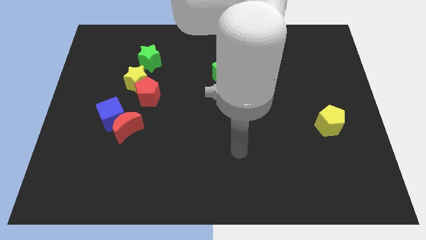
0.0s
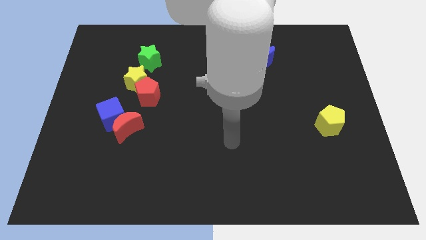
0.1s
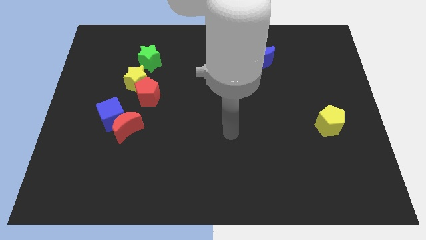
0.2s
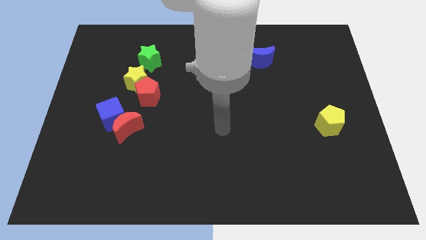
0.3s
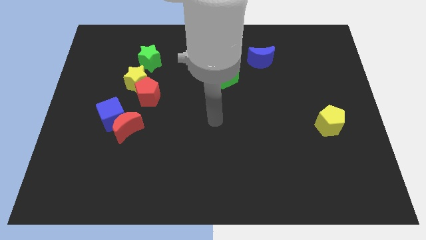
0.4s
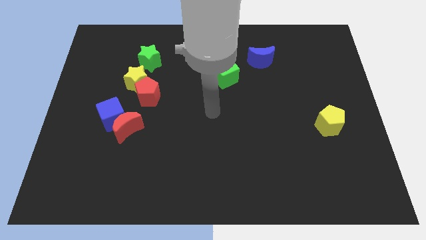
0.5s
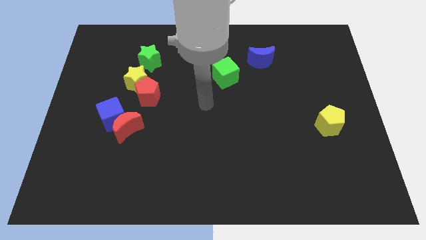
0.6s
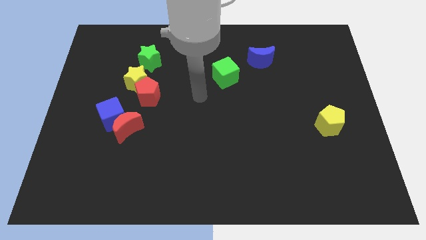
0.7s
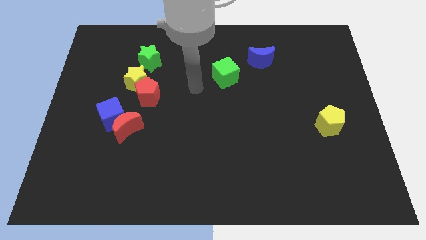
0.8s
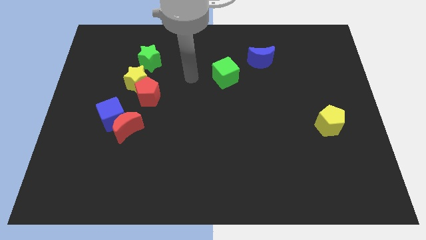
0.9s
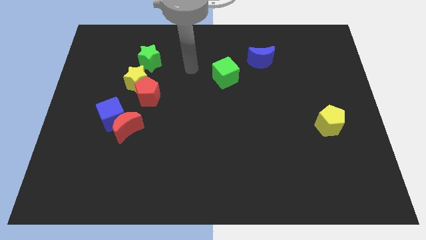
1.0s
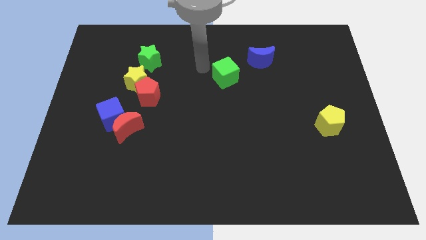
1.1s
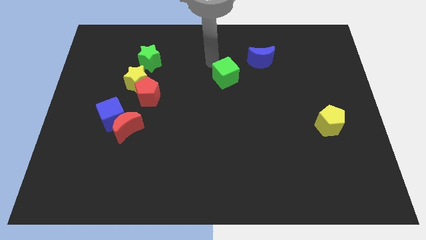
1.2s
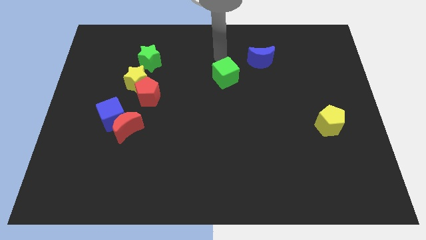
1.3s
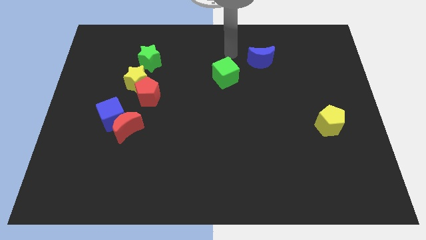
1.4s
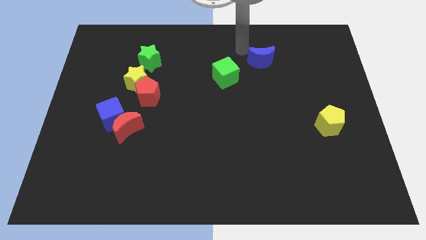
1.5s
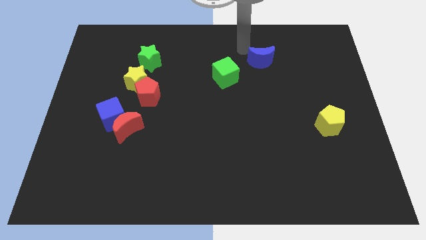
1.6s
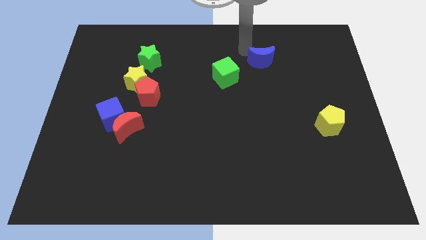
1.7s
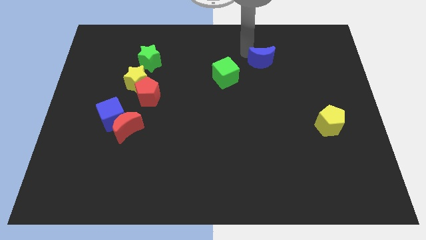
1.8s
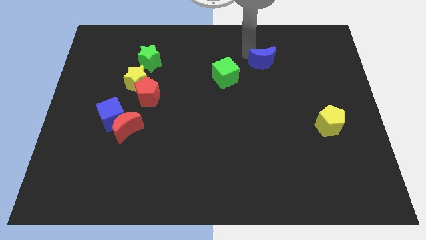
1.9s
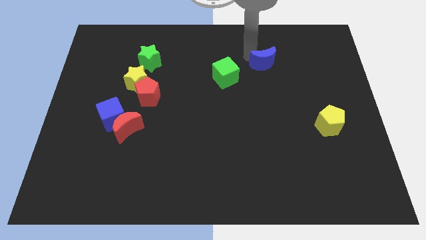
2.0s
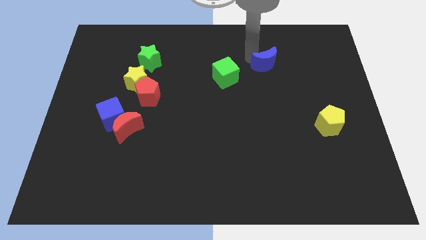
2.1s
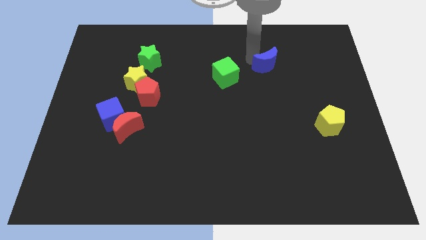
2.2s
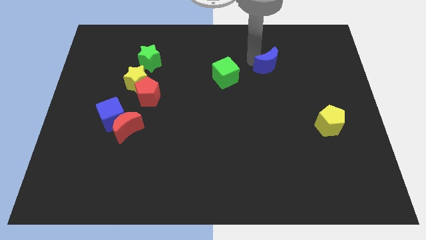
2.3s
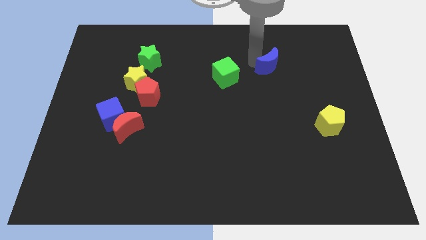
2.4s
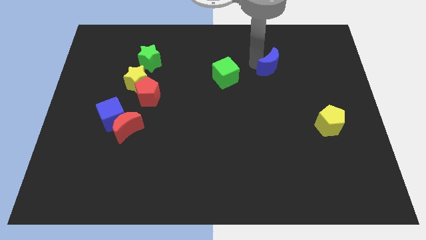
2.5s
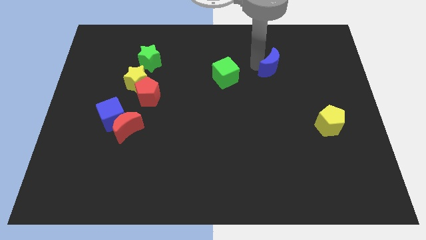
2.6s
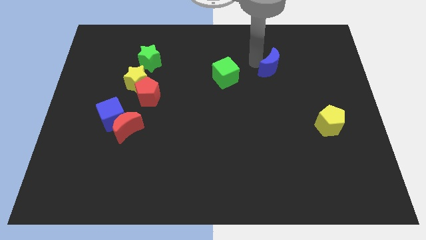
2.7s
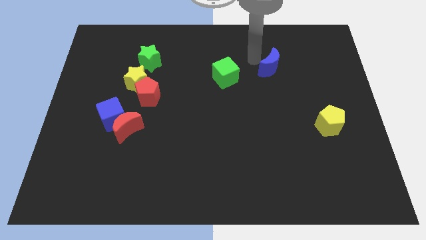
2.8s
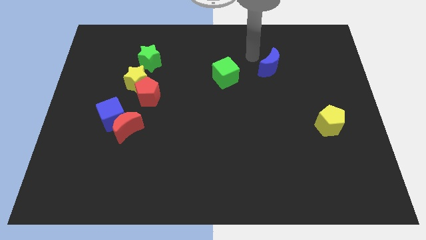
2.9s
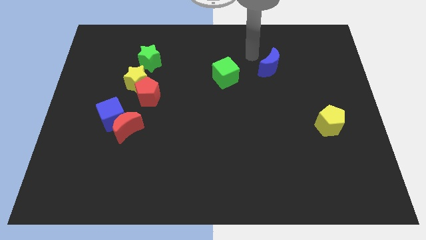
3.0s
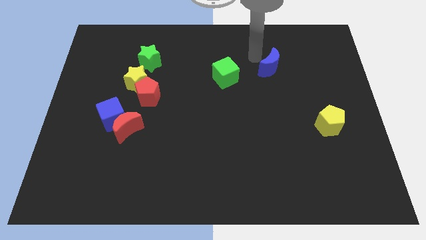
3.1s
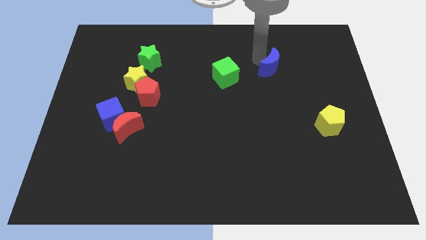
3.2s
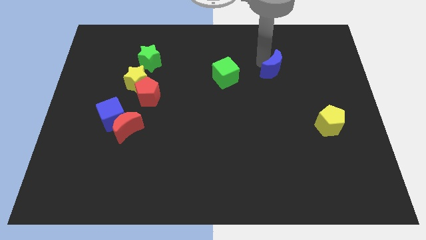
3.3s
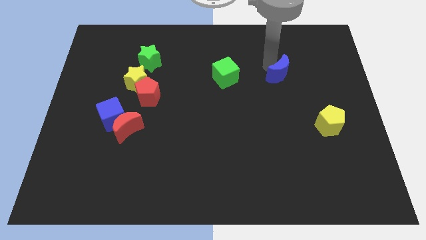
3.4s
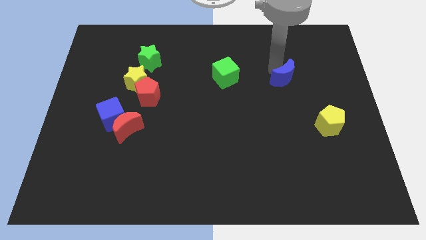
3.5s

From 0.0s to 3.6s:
slide the blue moon downwards and then to the right a little bit

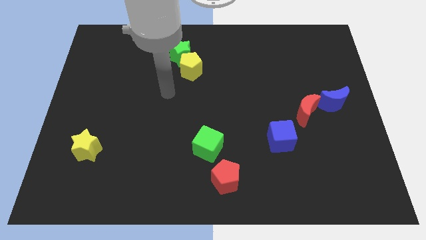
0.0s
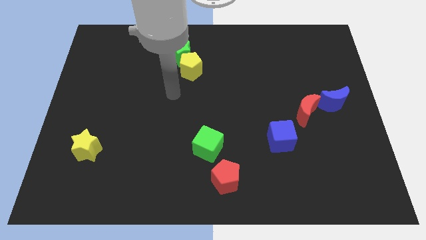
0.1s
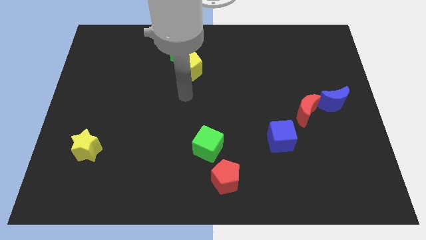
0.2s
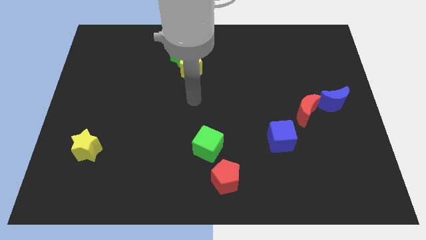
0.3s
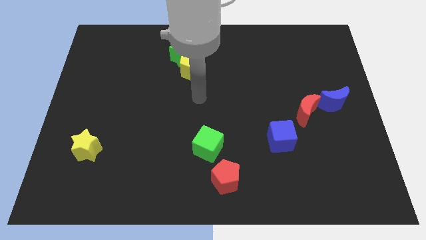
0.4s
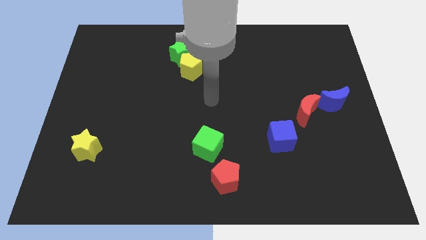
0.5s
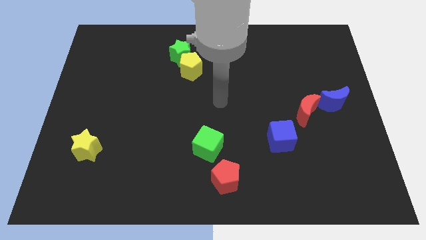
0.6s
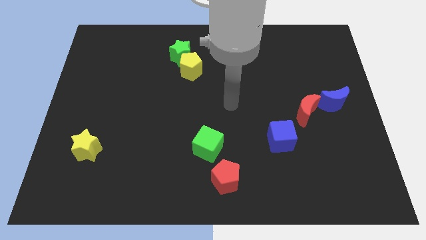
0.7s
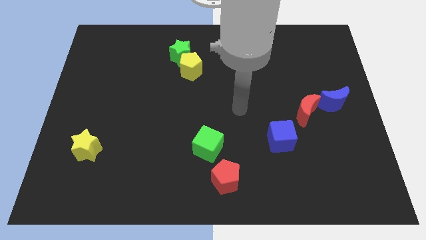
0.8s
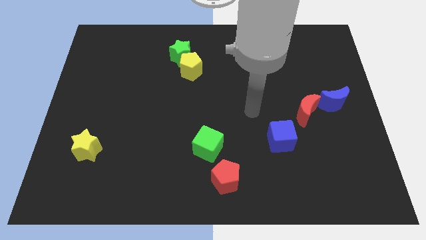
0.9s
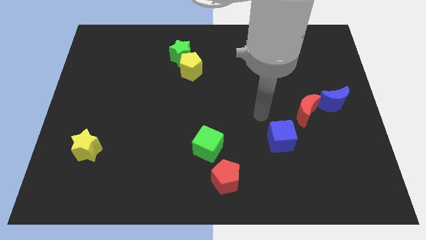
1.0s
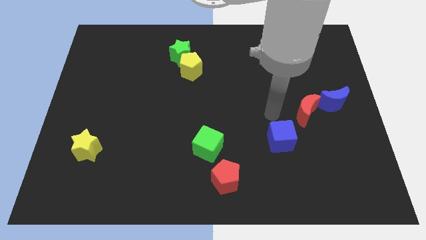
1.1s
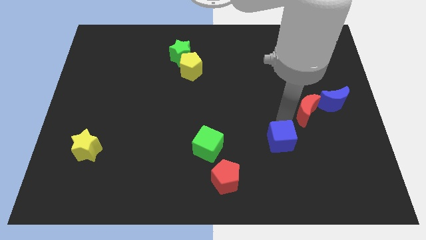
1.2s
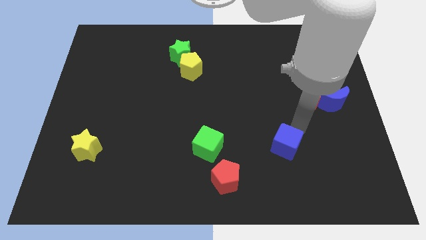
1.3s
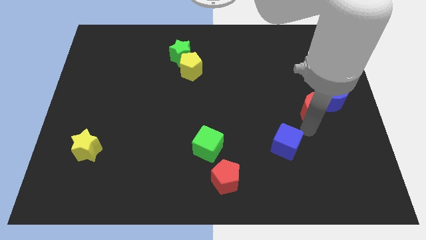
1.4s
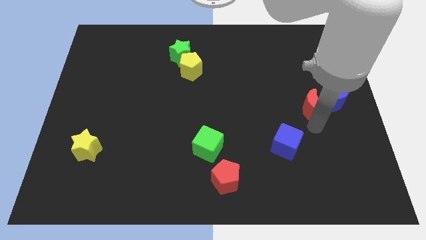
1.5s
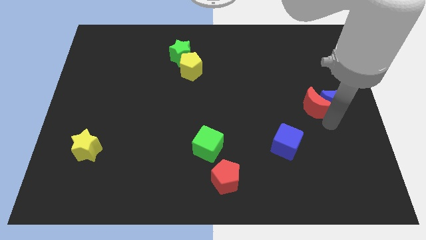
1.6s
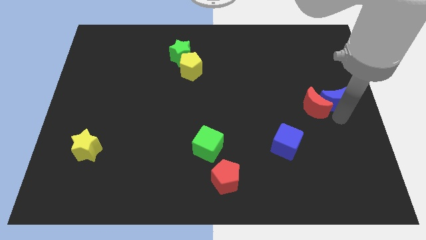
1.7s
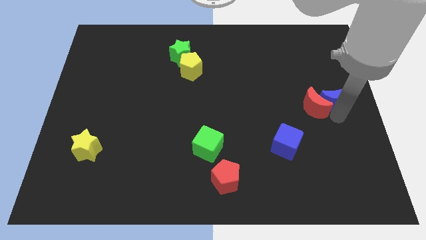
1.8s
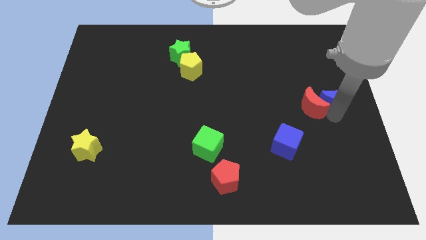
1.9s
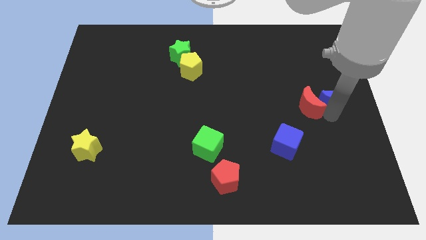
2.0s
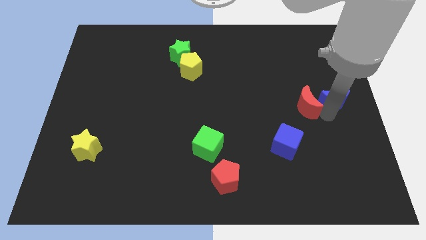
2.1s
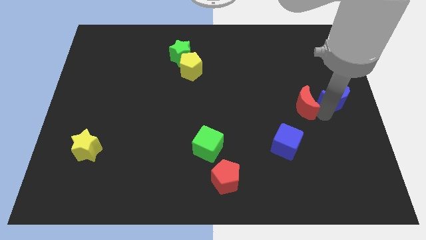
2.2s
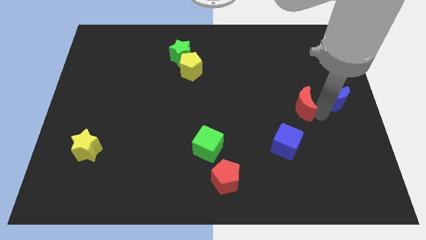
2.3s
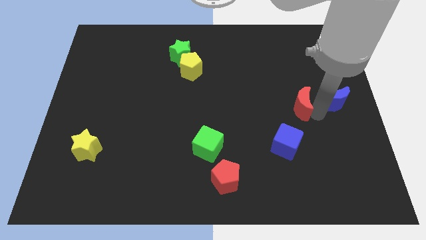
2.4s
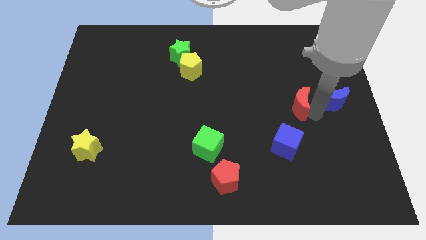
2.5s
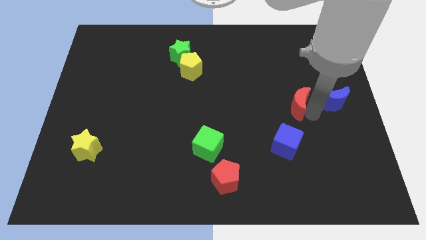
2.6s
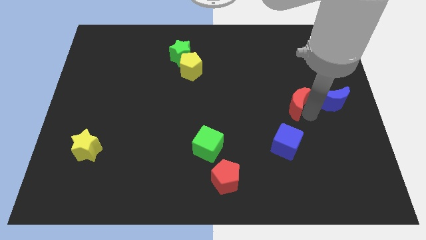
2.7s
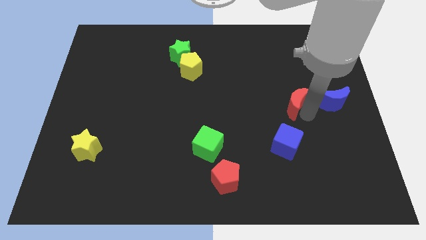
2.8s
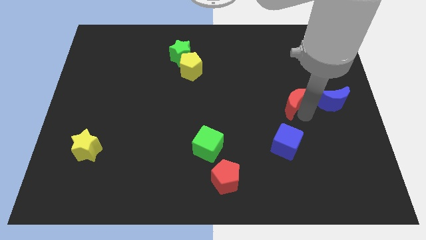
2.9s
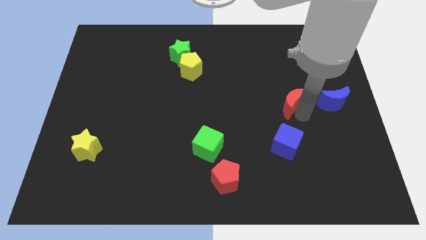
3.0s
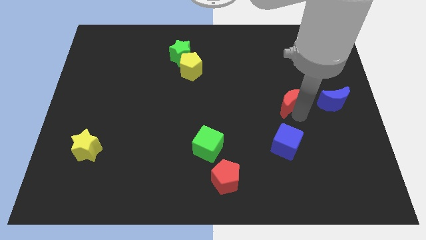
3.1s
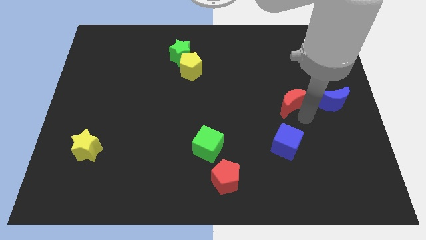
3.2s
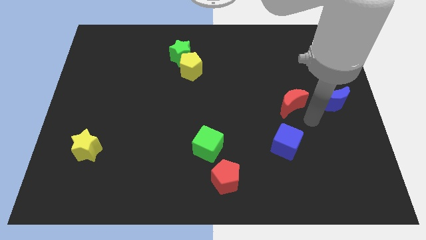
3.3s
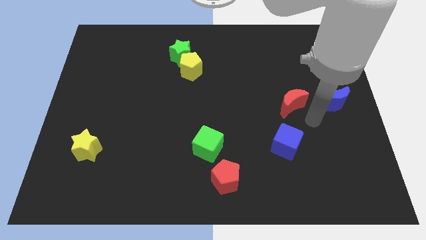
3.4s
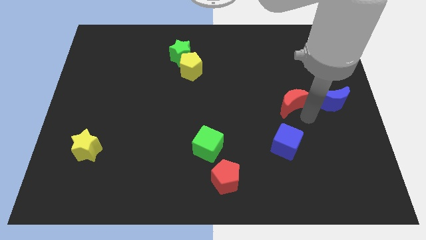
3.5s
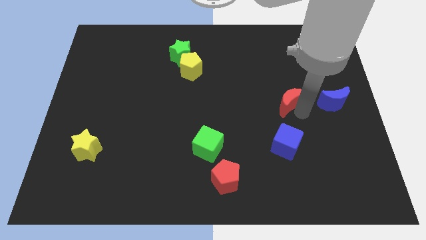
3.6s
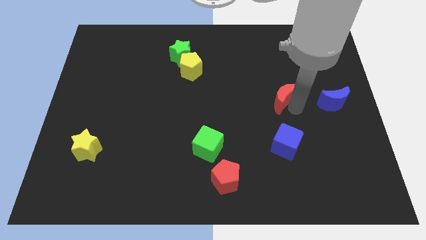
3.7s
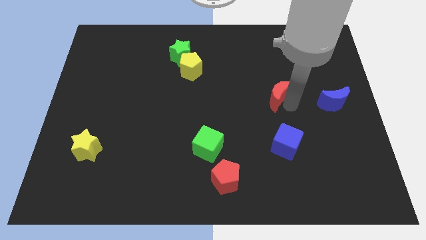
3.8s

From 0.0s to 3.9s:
push the red moon somewhat upwards and left
